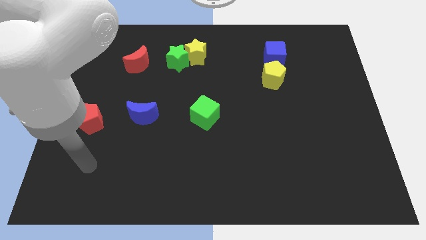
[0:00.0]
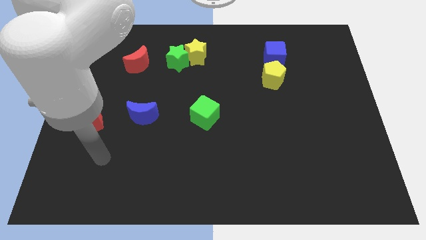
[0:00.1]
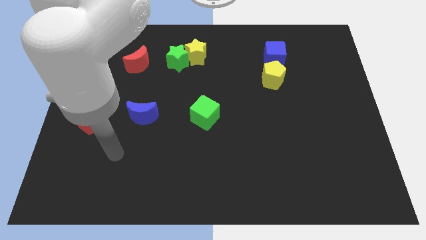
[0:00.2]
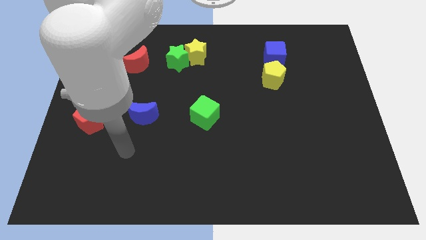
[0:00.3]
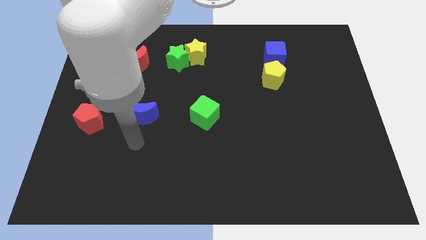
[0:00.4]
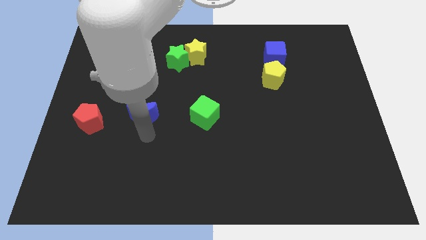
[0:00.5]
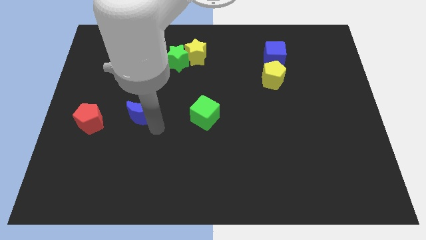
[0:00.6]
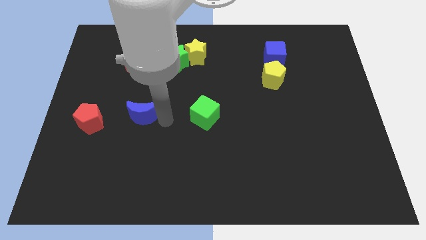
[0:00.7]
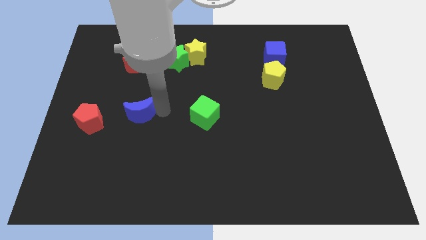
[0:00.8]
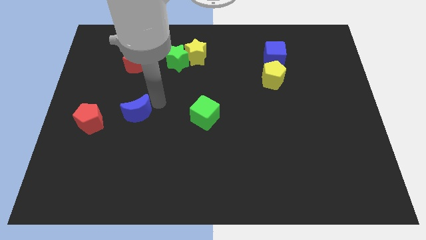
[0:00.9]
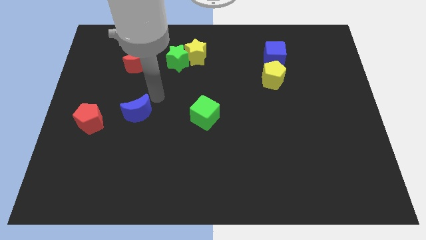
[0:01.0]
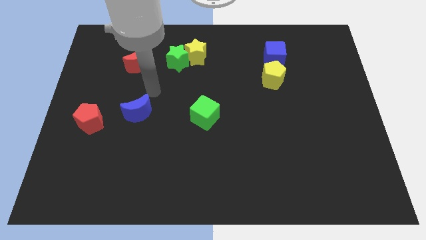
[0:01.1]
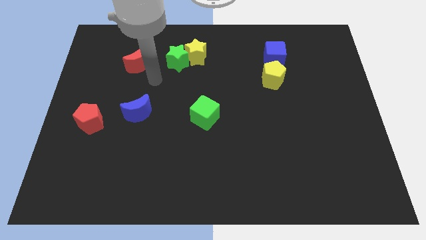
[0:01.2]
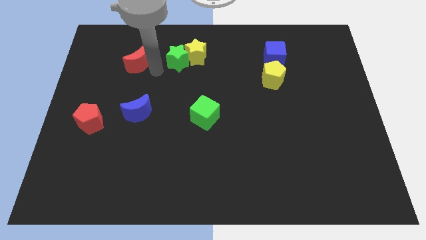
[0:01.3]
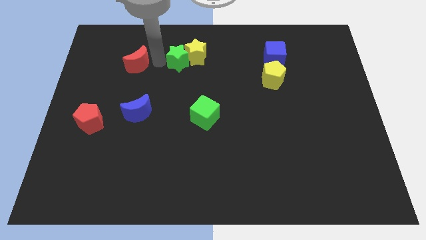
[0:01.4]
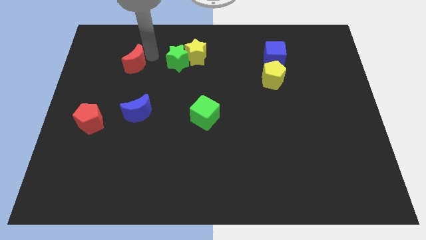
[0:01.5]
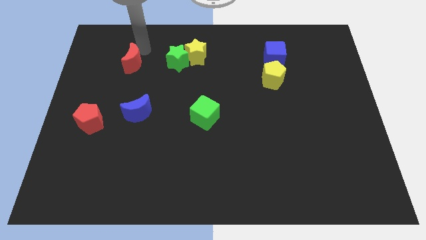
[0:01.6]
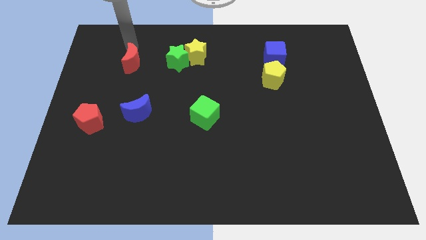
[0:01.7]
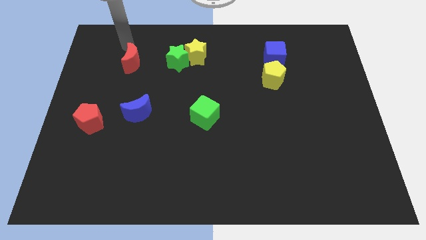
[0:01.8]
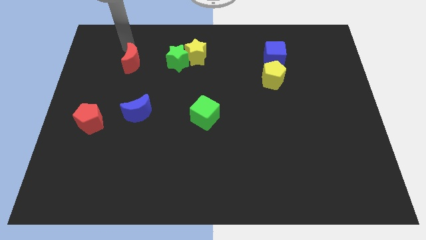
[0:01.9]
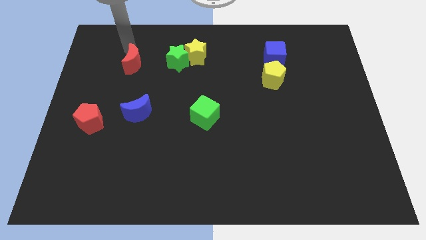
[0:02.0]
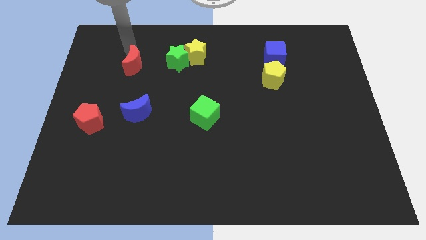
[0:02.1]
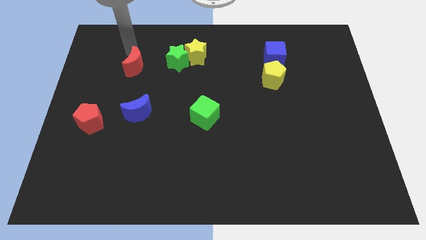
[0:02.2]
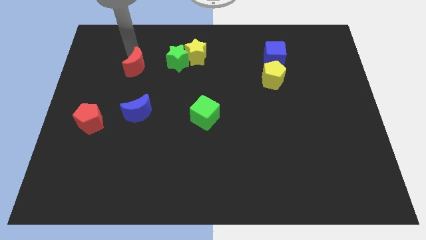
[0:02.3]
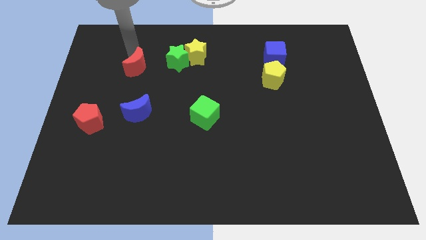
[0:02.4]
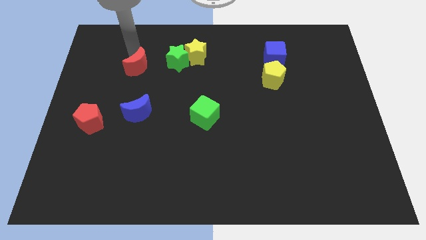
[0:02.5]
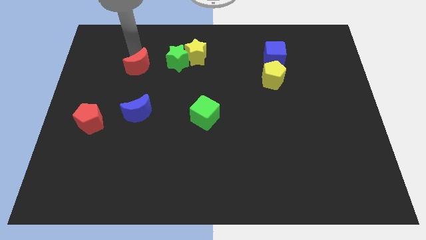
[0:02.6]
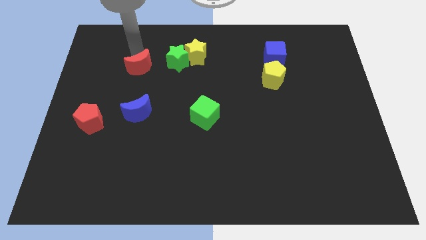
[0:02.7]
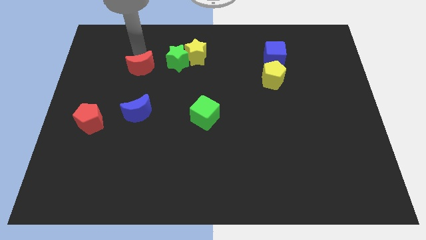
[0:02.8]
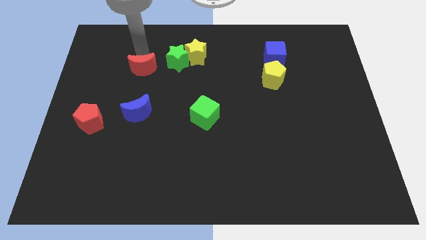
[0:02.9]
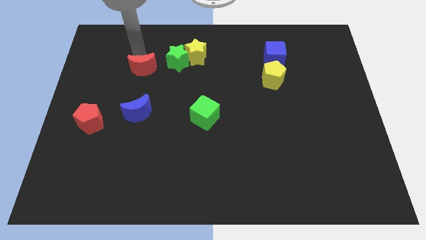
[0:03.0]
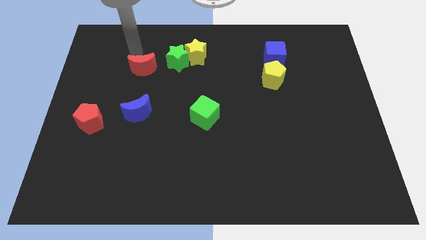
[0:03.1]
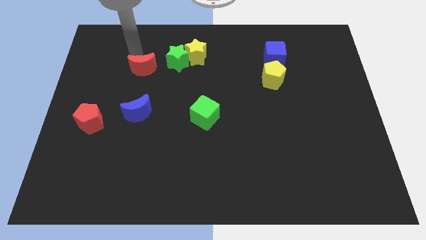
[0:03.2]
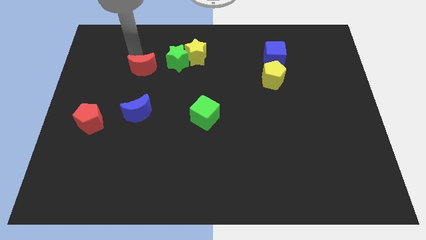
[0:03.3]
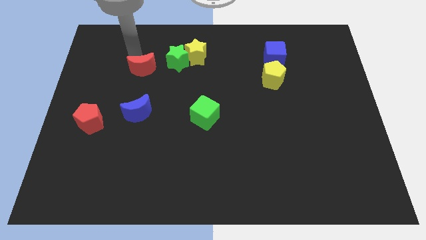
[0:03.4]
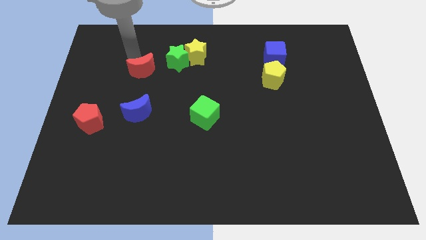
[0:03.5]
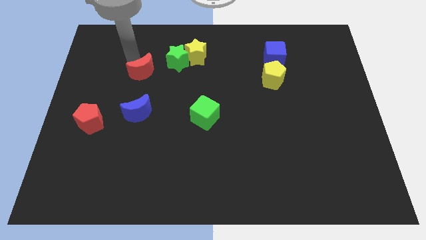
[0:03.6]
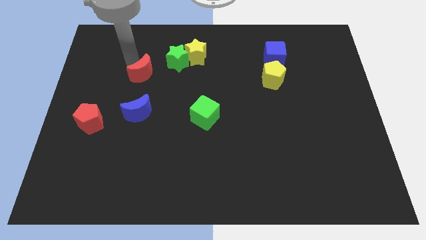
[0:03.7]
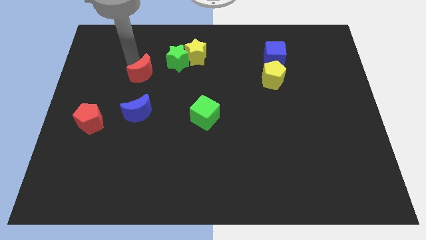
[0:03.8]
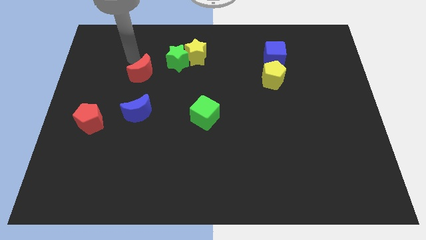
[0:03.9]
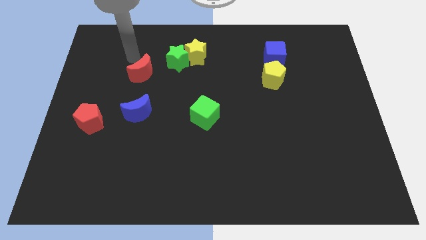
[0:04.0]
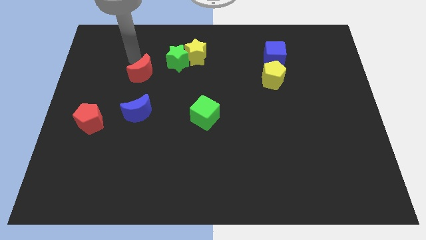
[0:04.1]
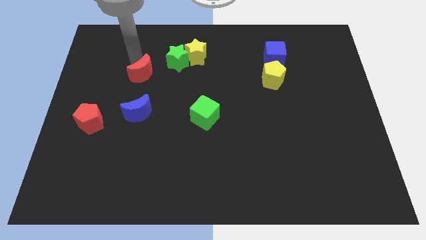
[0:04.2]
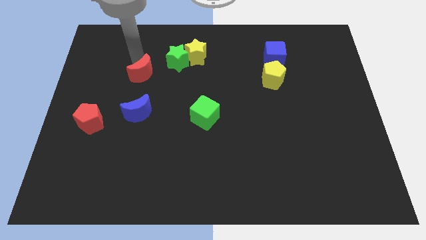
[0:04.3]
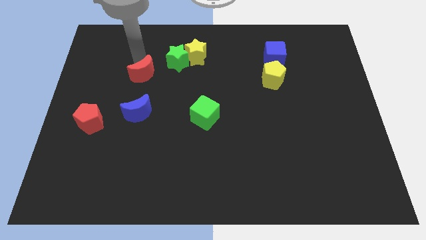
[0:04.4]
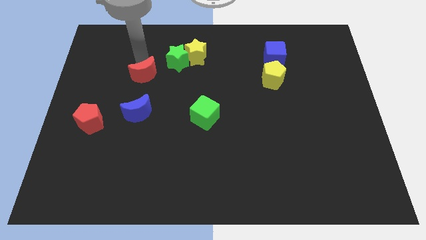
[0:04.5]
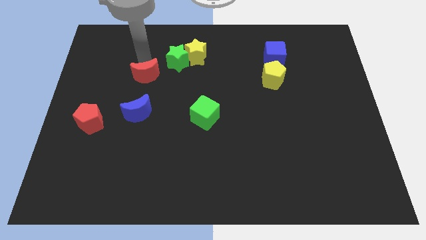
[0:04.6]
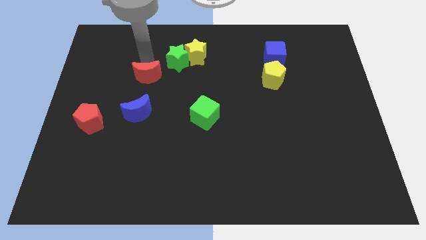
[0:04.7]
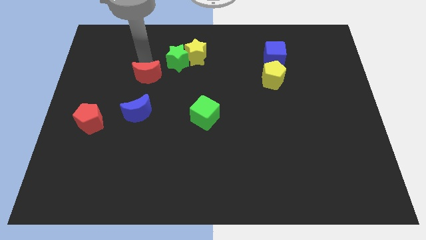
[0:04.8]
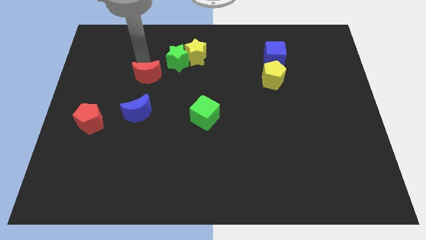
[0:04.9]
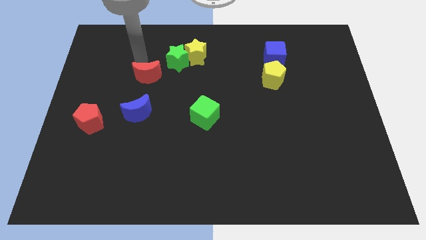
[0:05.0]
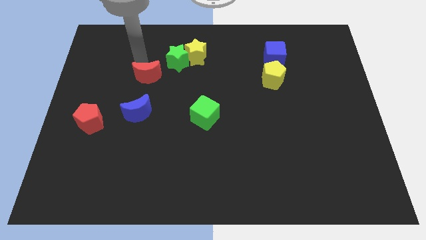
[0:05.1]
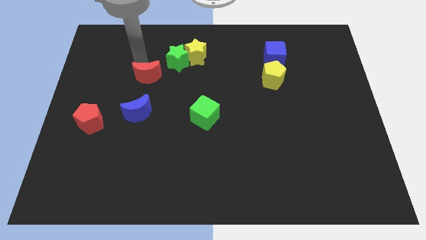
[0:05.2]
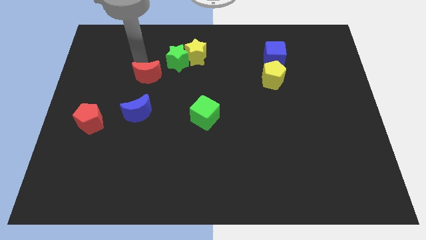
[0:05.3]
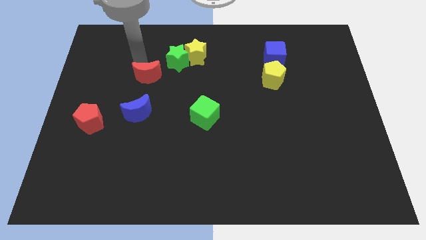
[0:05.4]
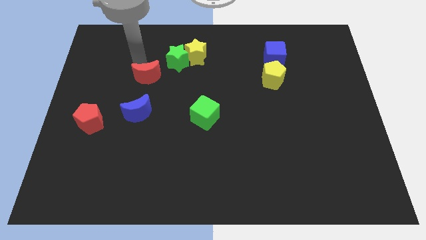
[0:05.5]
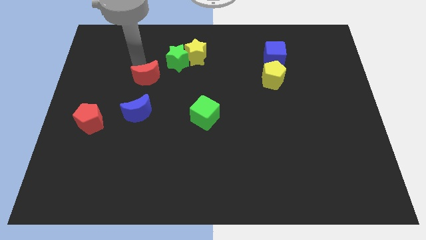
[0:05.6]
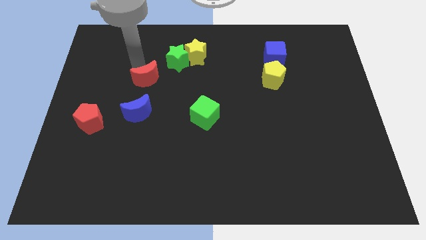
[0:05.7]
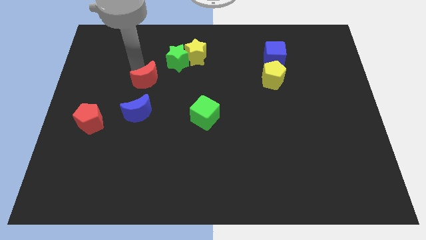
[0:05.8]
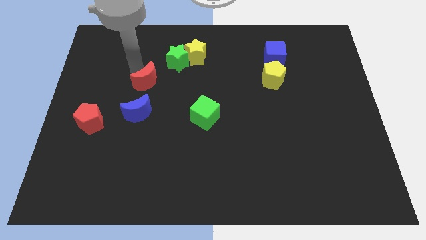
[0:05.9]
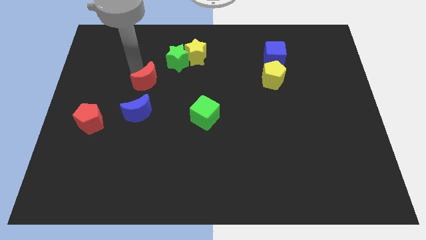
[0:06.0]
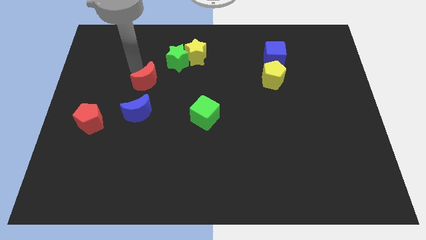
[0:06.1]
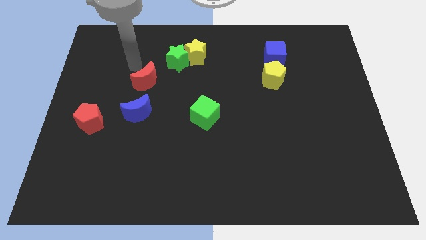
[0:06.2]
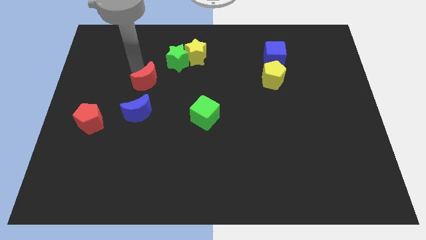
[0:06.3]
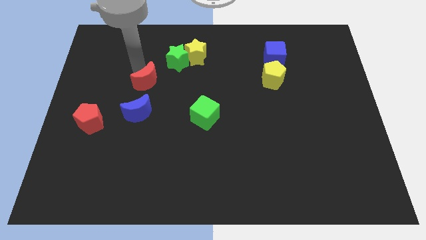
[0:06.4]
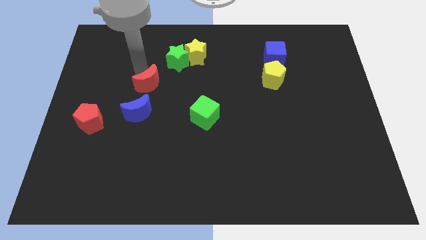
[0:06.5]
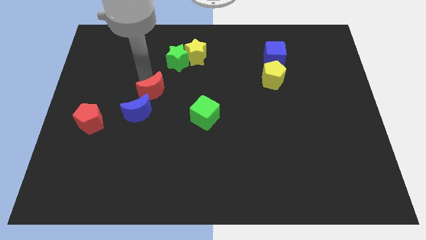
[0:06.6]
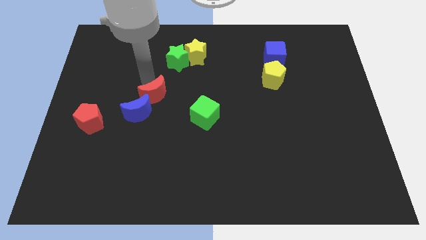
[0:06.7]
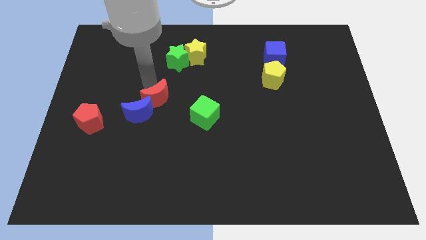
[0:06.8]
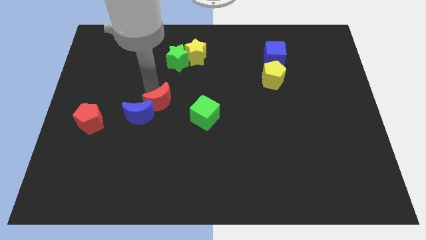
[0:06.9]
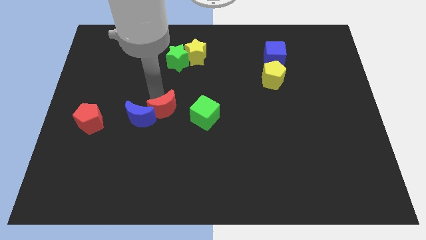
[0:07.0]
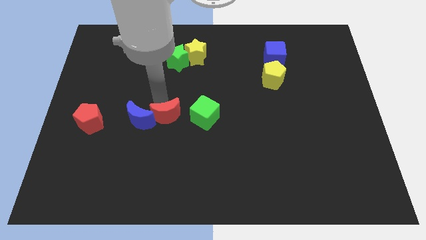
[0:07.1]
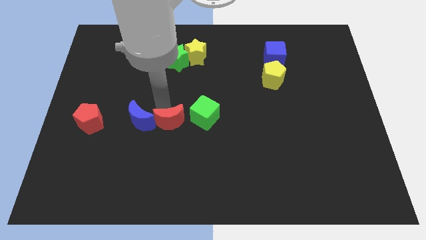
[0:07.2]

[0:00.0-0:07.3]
slide the red moon to the bottom left of the green cube

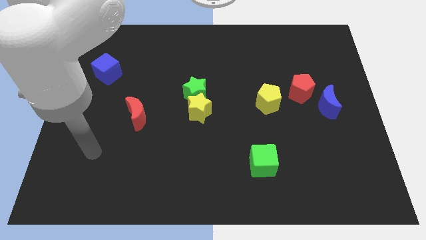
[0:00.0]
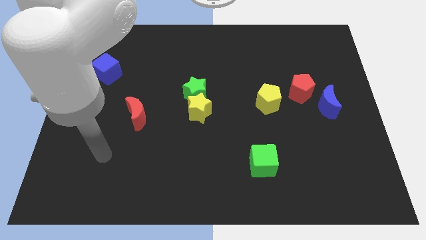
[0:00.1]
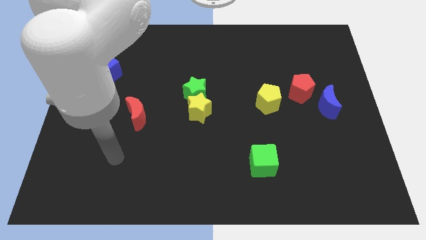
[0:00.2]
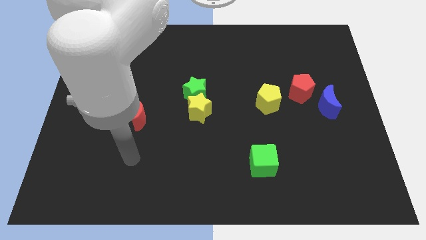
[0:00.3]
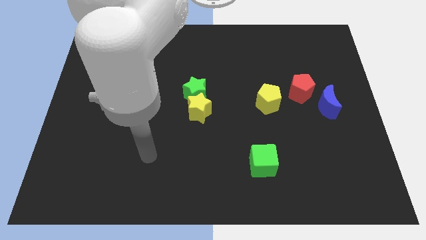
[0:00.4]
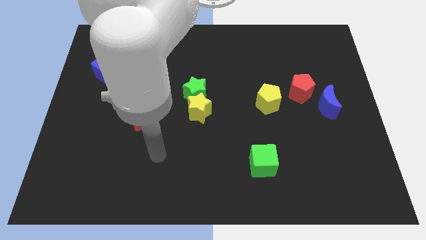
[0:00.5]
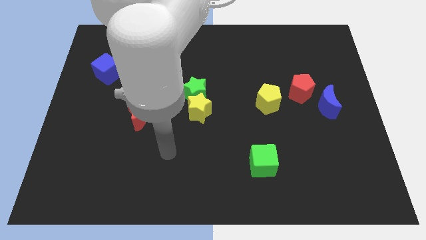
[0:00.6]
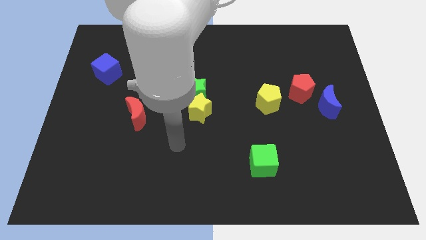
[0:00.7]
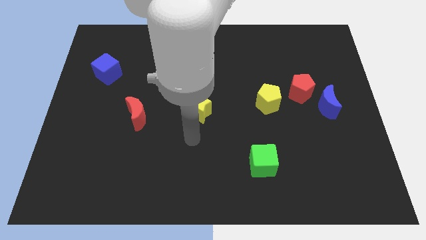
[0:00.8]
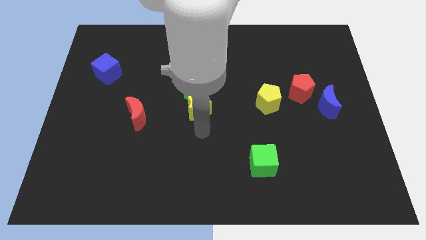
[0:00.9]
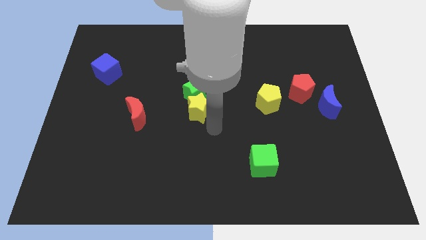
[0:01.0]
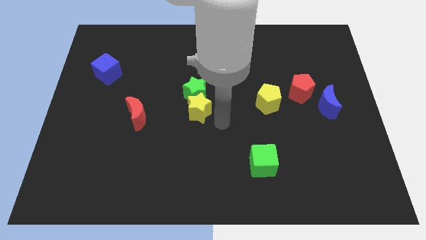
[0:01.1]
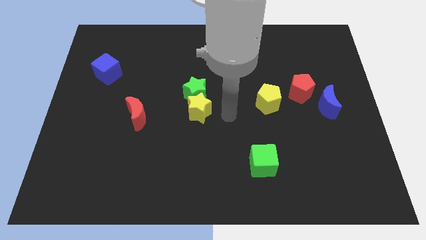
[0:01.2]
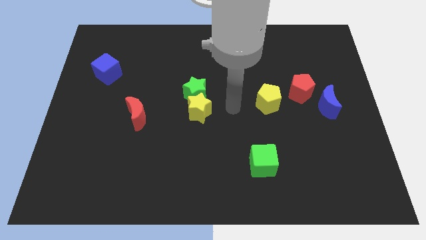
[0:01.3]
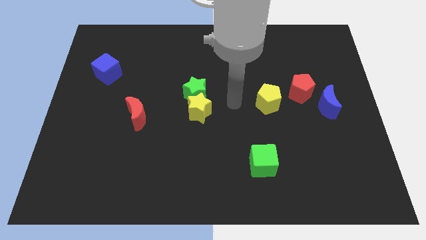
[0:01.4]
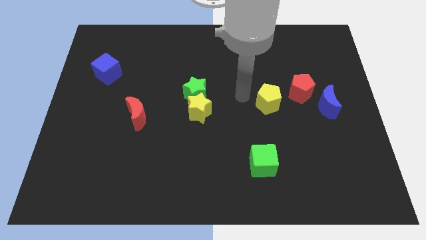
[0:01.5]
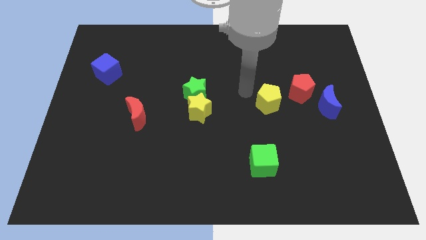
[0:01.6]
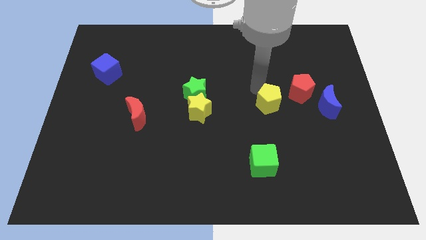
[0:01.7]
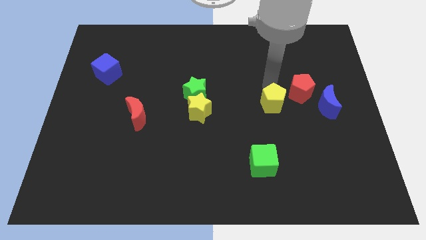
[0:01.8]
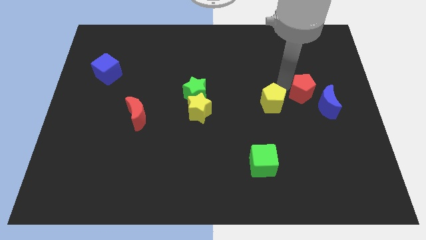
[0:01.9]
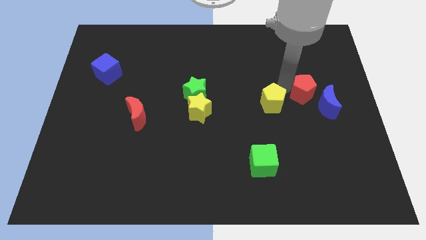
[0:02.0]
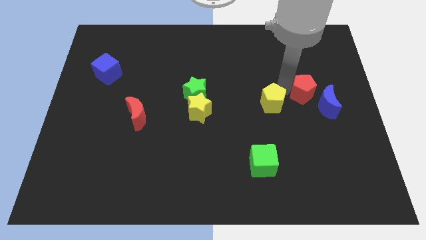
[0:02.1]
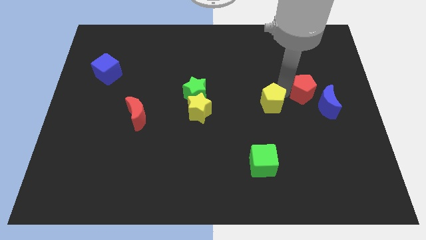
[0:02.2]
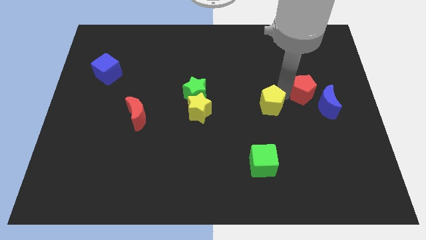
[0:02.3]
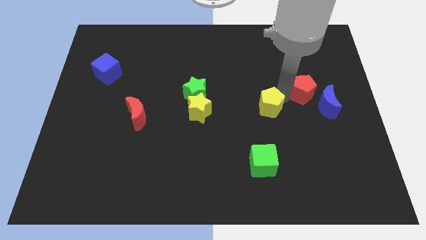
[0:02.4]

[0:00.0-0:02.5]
put the yellow pentagon above the green cube
